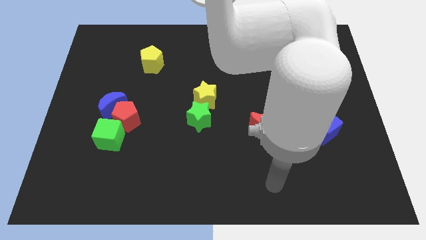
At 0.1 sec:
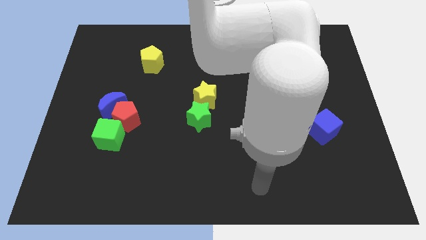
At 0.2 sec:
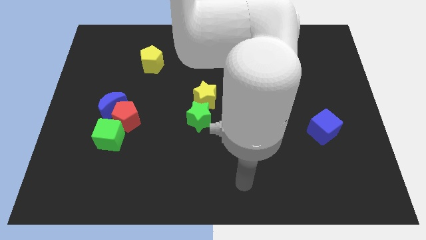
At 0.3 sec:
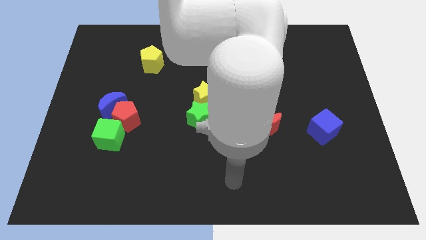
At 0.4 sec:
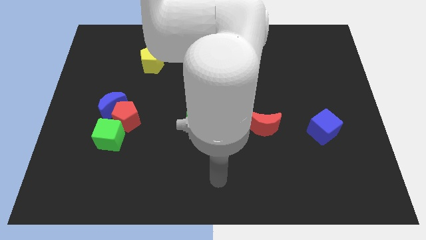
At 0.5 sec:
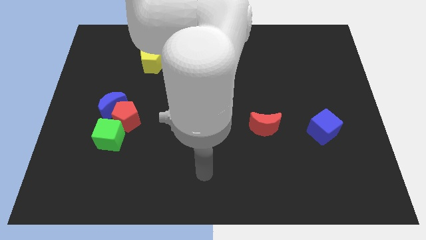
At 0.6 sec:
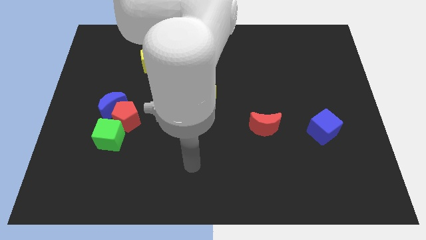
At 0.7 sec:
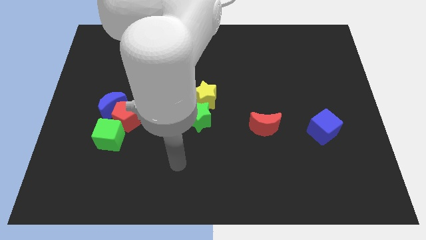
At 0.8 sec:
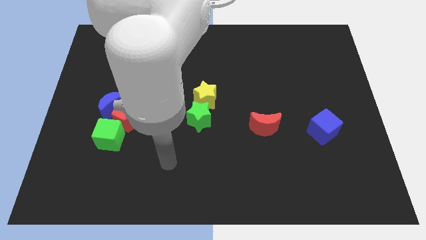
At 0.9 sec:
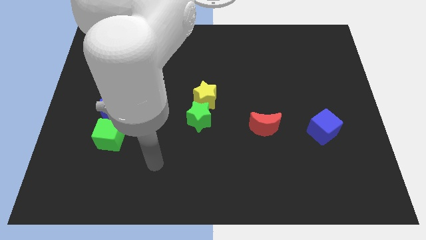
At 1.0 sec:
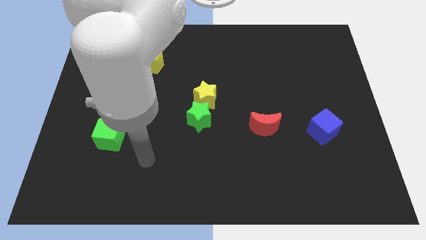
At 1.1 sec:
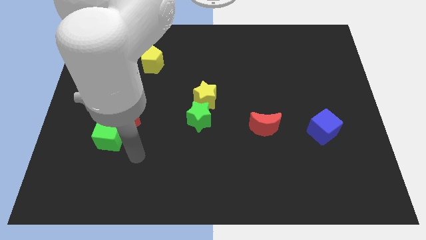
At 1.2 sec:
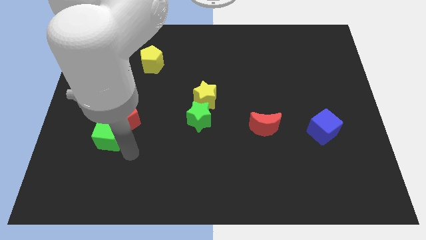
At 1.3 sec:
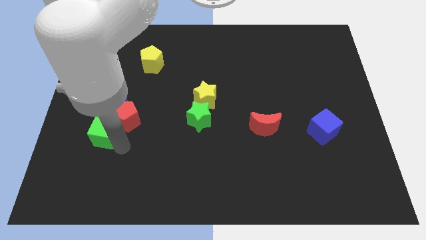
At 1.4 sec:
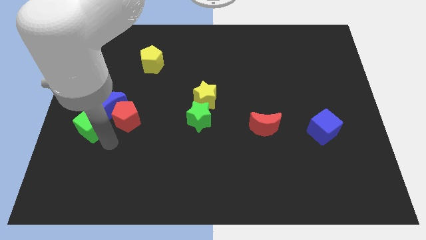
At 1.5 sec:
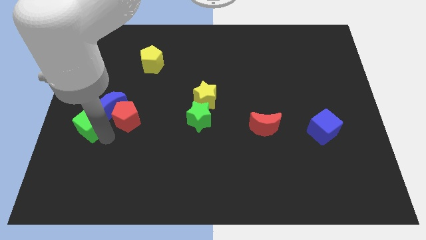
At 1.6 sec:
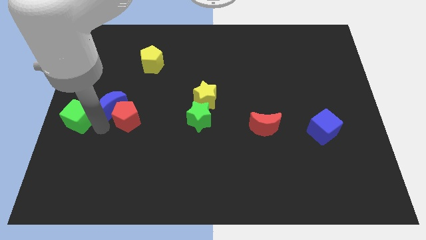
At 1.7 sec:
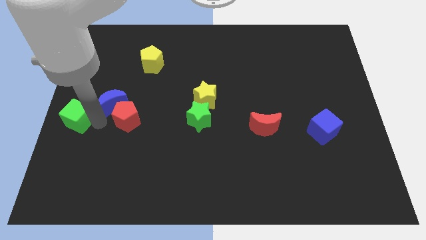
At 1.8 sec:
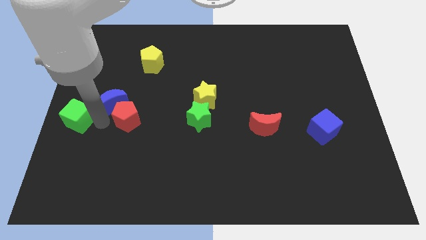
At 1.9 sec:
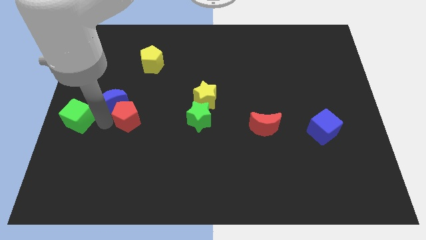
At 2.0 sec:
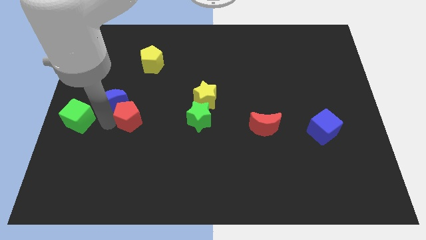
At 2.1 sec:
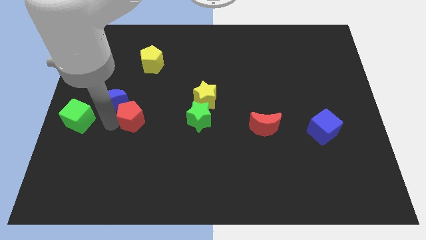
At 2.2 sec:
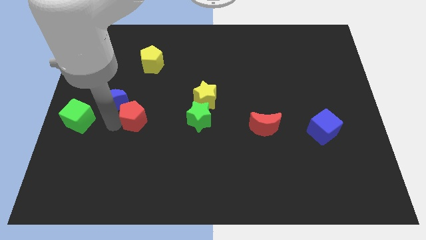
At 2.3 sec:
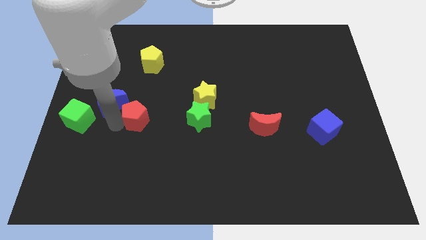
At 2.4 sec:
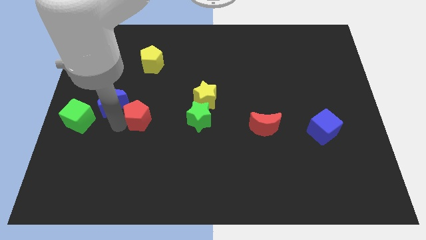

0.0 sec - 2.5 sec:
pull the red pentagon apart from the blue moon and green cube

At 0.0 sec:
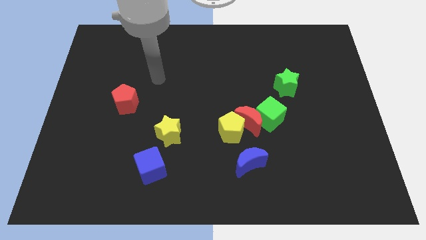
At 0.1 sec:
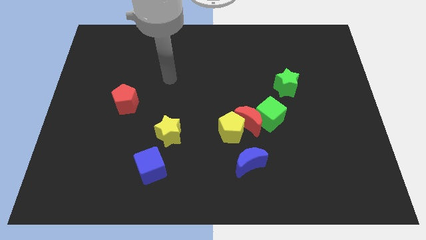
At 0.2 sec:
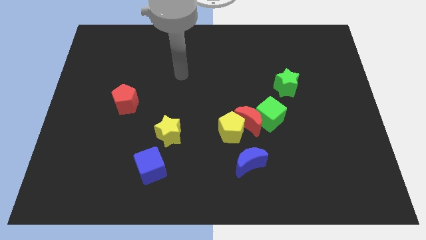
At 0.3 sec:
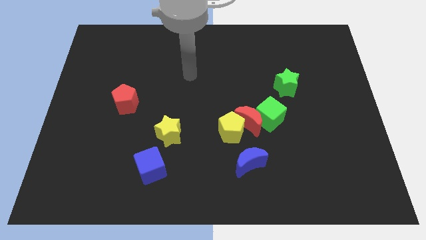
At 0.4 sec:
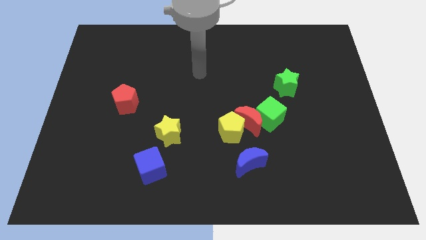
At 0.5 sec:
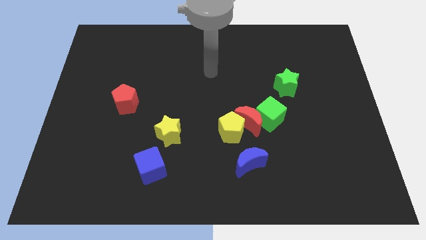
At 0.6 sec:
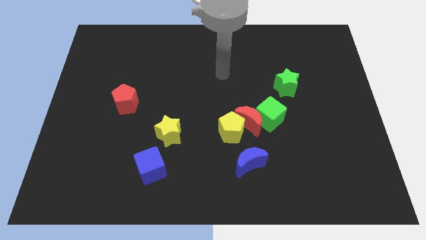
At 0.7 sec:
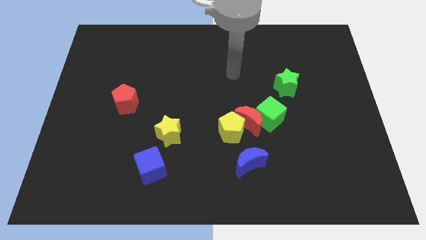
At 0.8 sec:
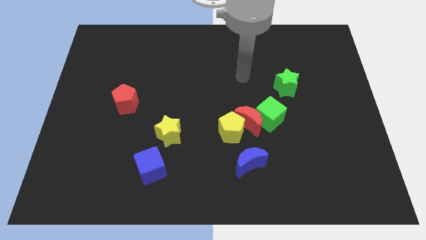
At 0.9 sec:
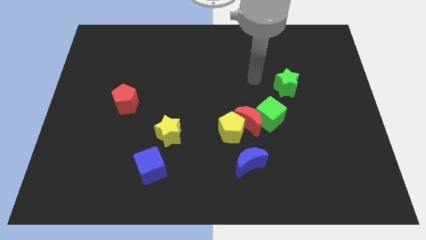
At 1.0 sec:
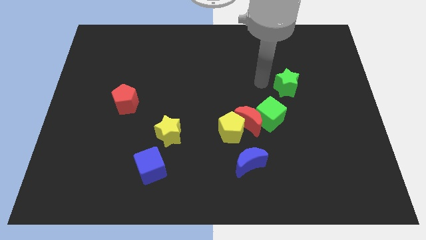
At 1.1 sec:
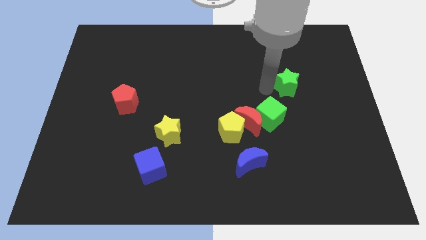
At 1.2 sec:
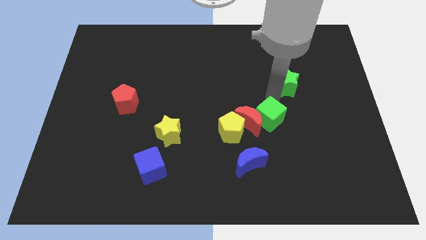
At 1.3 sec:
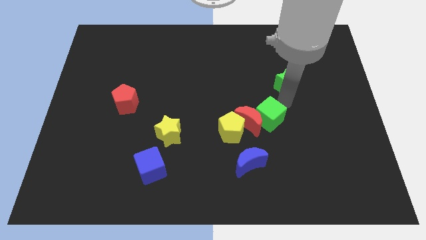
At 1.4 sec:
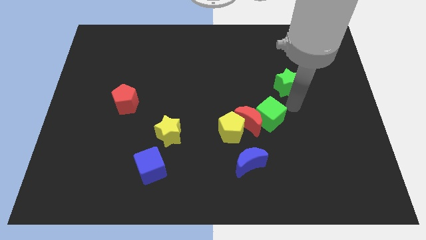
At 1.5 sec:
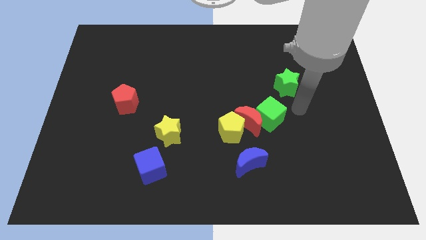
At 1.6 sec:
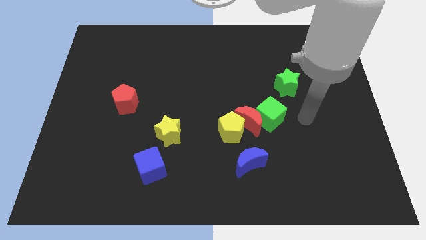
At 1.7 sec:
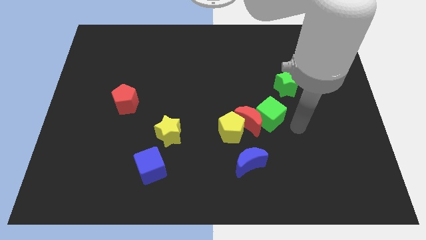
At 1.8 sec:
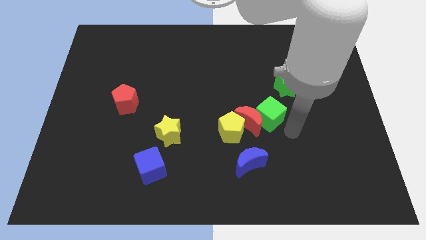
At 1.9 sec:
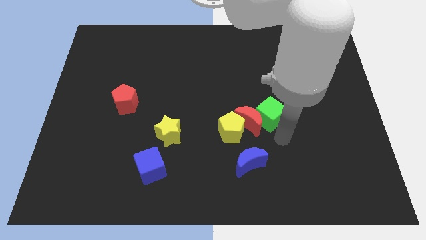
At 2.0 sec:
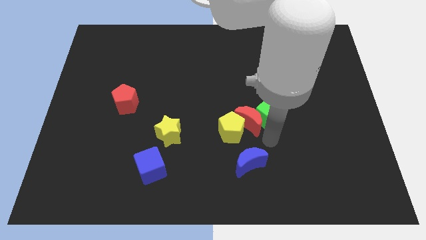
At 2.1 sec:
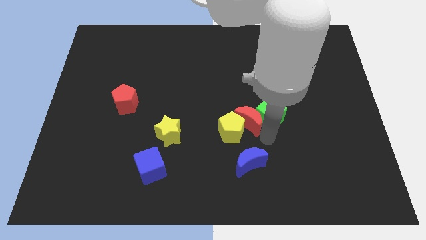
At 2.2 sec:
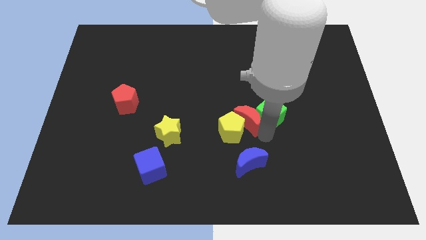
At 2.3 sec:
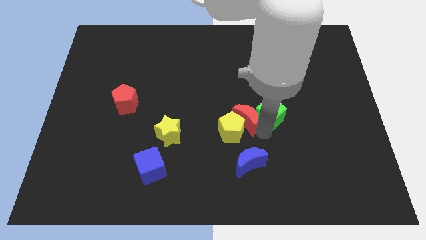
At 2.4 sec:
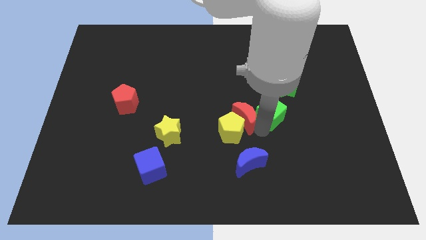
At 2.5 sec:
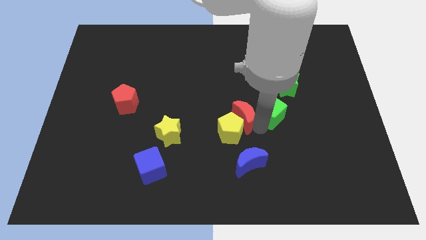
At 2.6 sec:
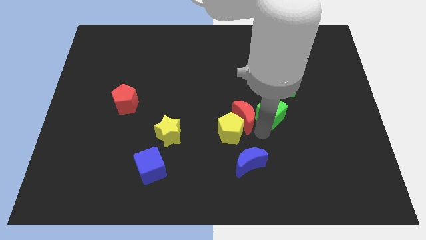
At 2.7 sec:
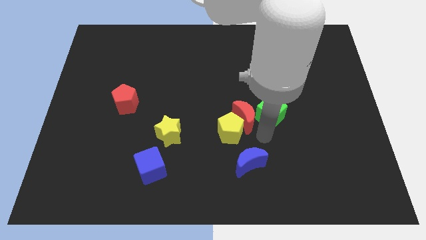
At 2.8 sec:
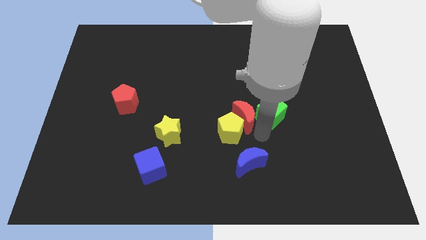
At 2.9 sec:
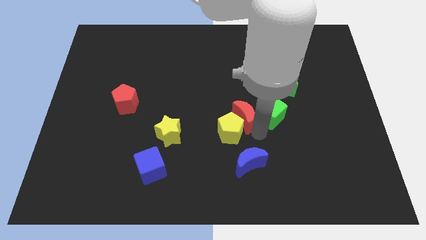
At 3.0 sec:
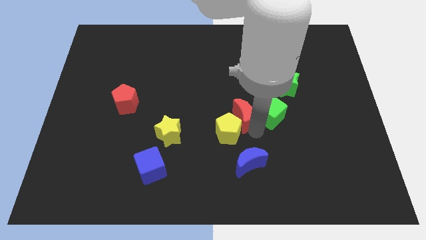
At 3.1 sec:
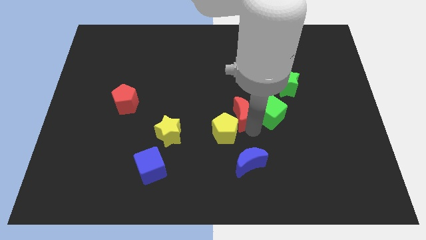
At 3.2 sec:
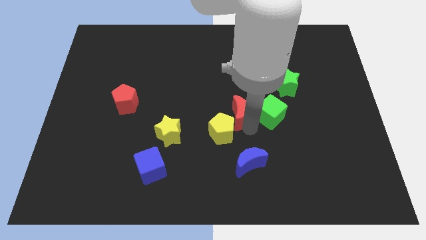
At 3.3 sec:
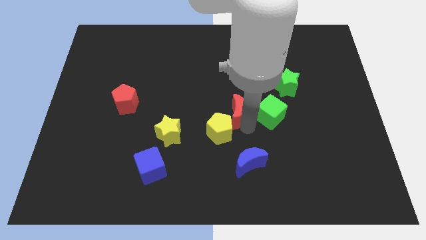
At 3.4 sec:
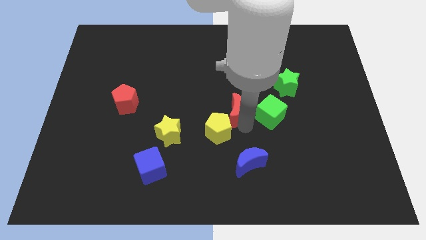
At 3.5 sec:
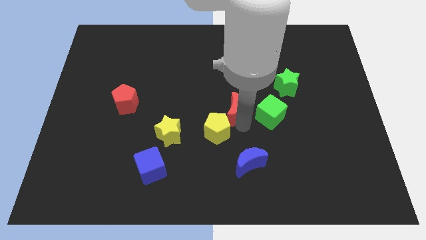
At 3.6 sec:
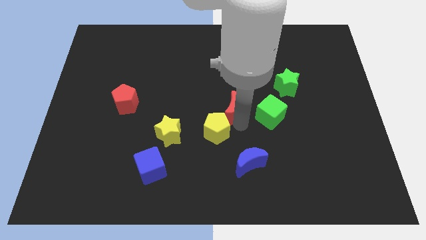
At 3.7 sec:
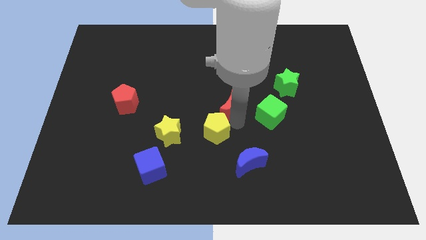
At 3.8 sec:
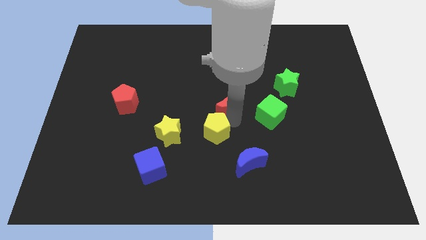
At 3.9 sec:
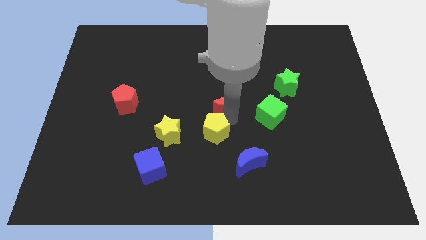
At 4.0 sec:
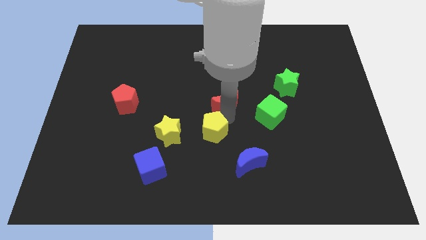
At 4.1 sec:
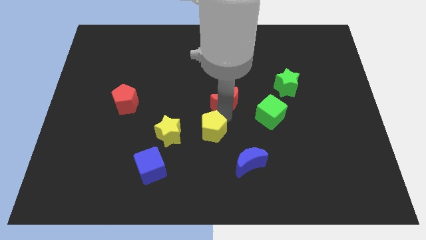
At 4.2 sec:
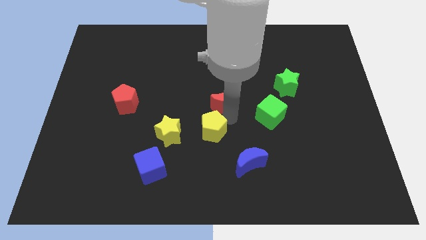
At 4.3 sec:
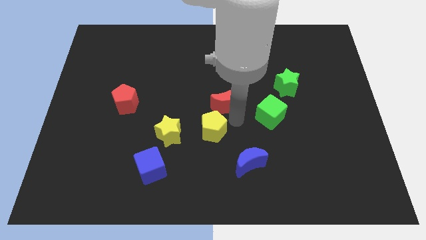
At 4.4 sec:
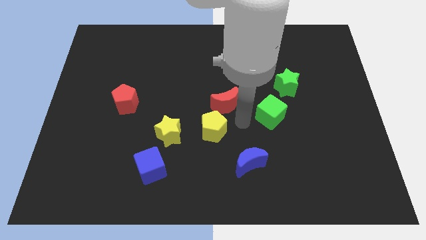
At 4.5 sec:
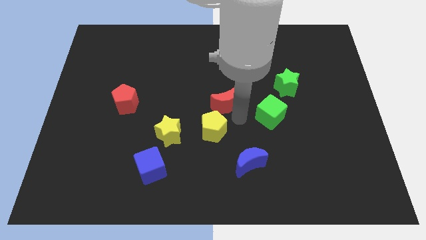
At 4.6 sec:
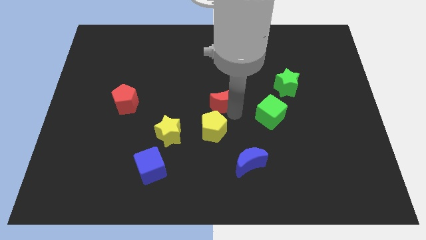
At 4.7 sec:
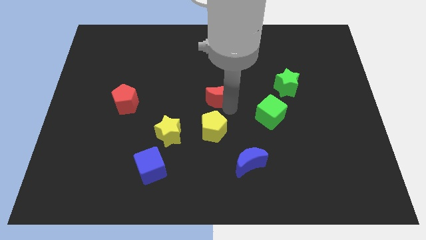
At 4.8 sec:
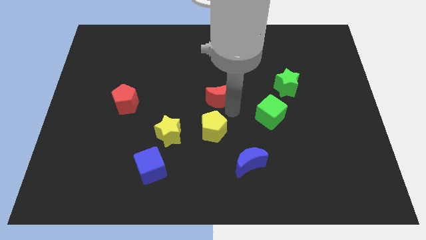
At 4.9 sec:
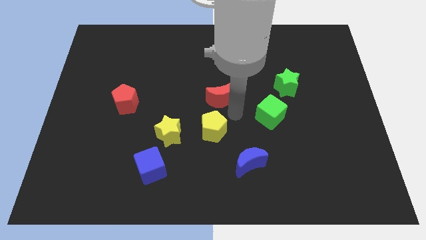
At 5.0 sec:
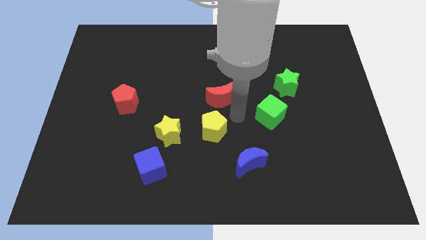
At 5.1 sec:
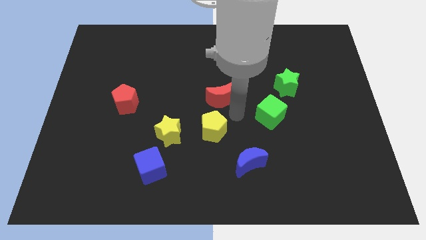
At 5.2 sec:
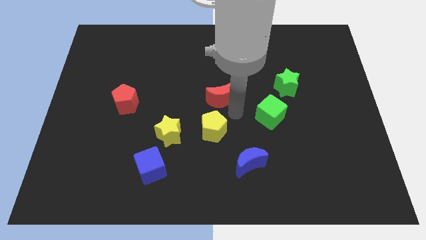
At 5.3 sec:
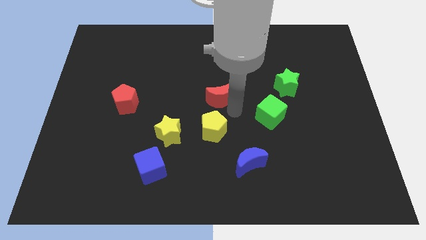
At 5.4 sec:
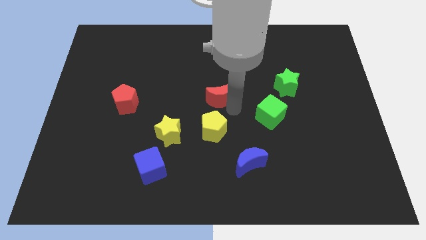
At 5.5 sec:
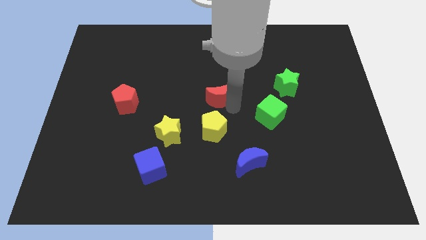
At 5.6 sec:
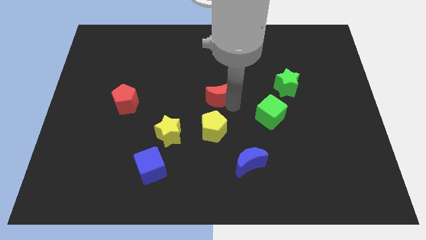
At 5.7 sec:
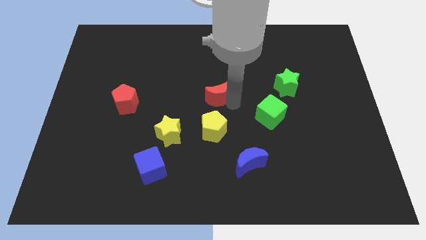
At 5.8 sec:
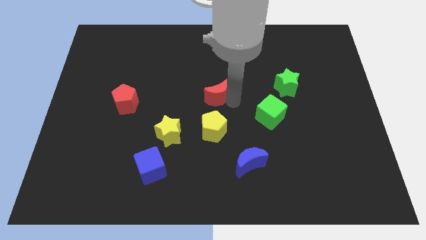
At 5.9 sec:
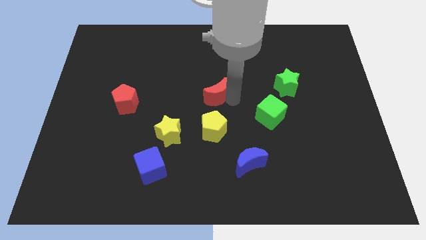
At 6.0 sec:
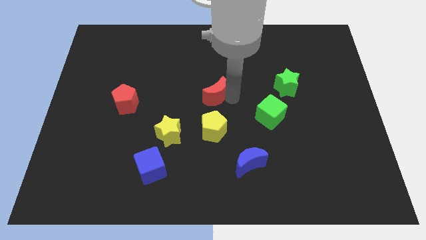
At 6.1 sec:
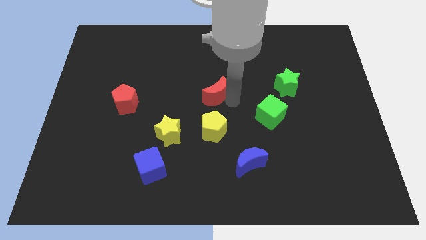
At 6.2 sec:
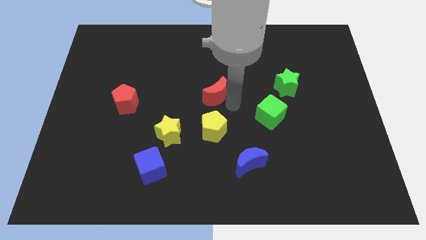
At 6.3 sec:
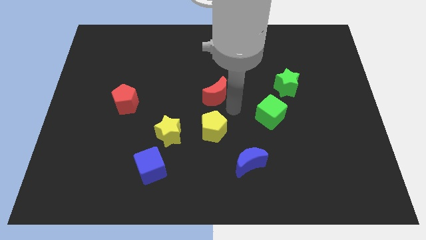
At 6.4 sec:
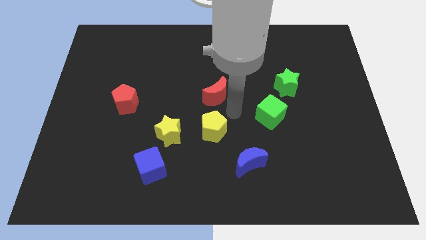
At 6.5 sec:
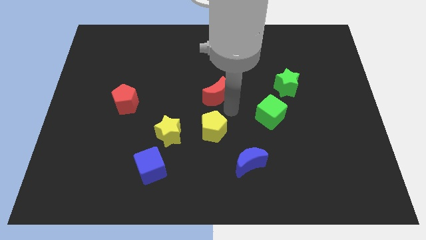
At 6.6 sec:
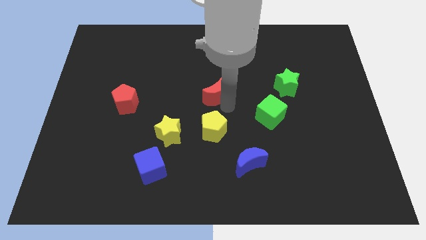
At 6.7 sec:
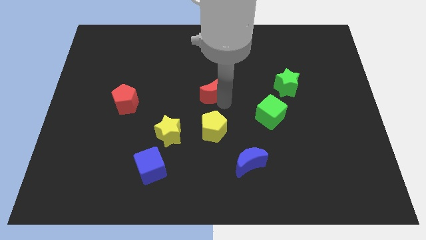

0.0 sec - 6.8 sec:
separate the red moon from the yellow pentagon and green cube
